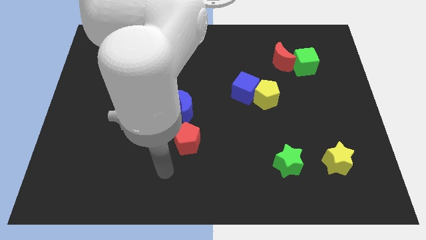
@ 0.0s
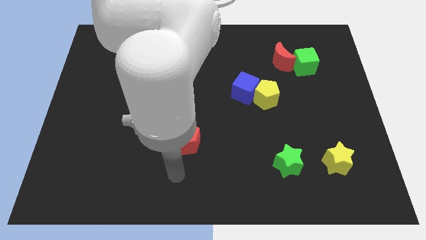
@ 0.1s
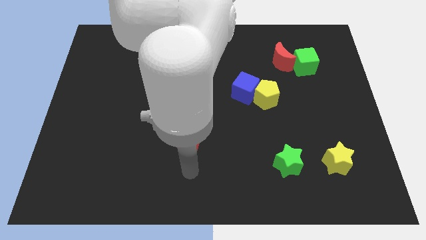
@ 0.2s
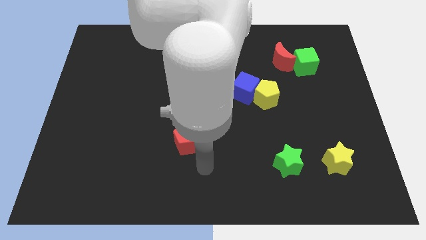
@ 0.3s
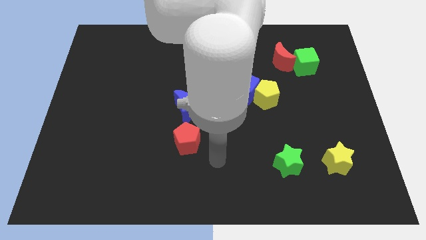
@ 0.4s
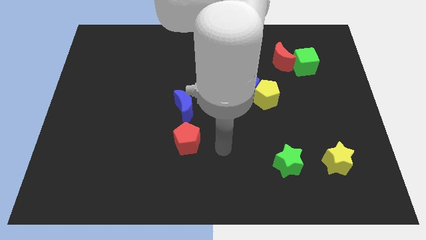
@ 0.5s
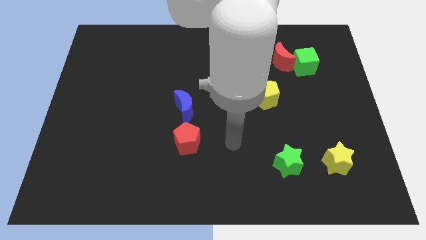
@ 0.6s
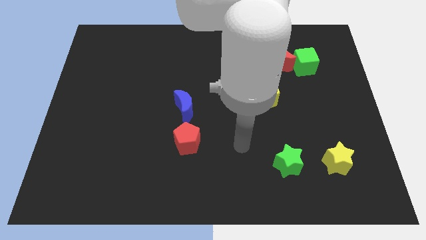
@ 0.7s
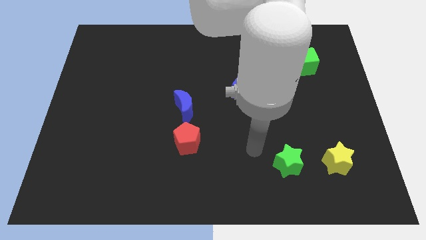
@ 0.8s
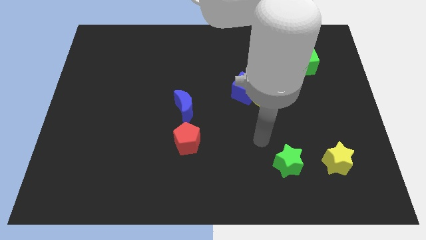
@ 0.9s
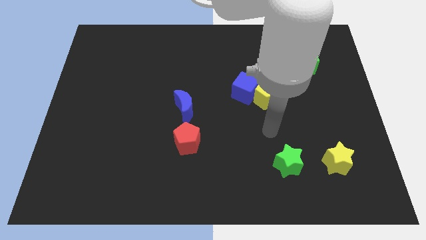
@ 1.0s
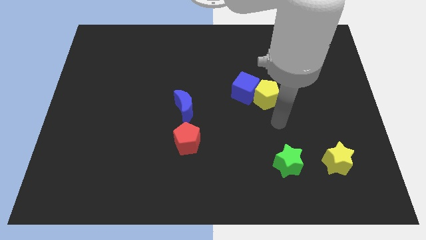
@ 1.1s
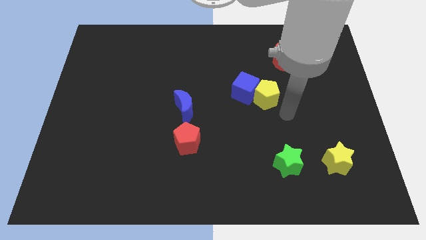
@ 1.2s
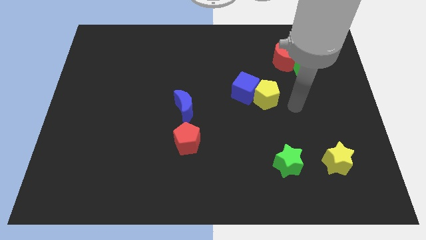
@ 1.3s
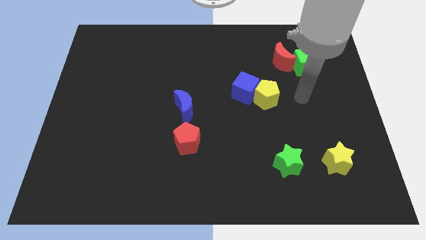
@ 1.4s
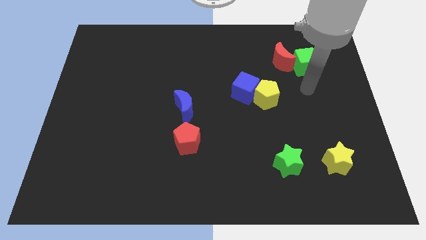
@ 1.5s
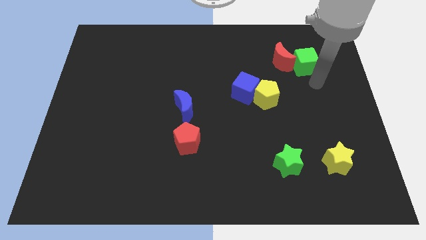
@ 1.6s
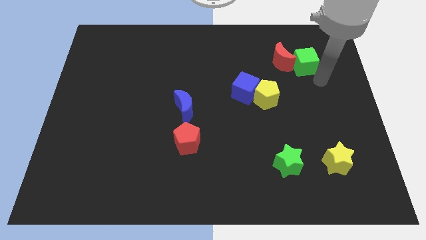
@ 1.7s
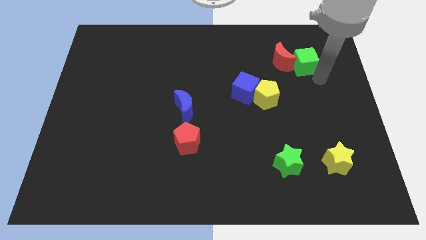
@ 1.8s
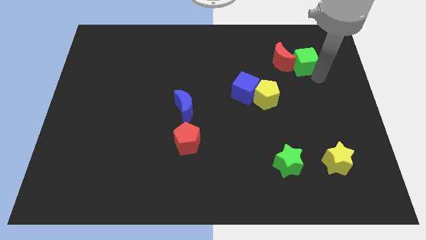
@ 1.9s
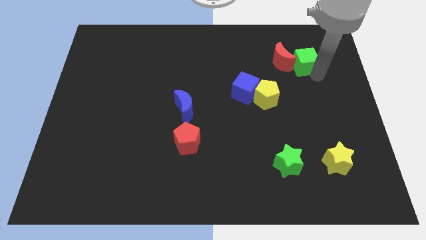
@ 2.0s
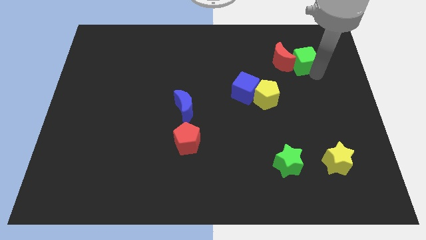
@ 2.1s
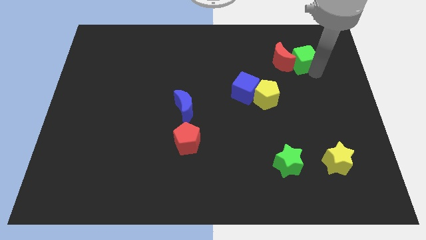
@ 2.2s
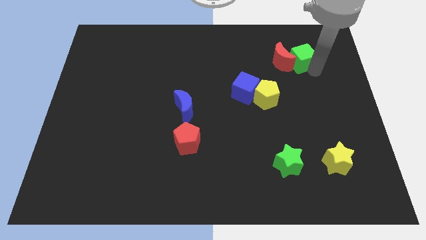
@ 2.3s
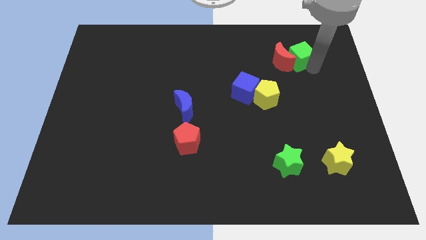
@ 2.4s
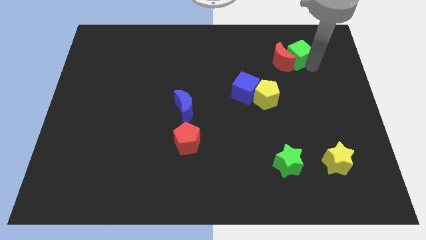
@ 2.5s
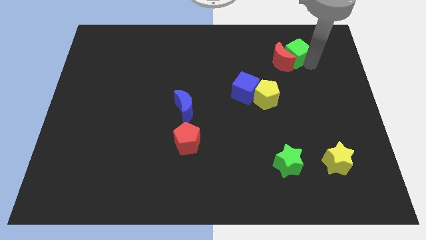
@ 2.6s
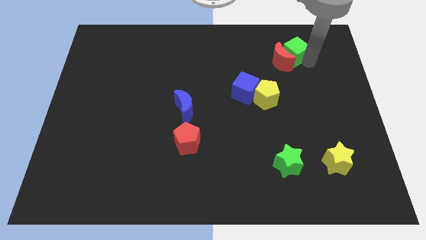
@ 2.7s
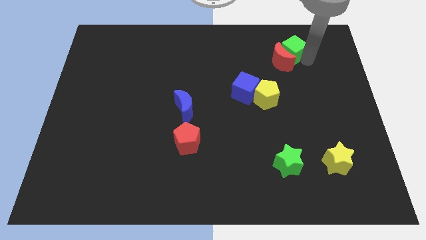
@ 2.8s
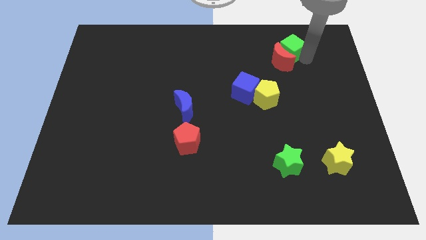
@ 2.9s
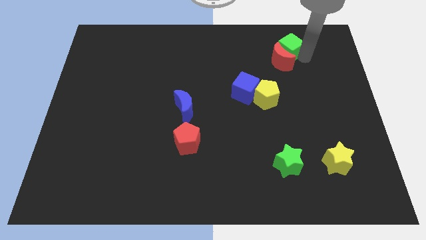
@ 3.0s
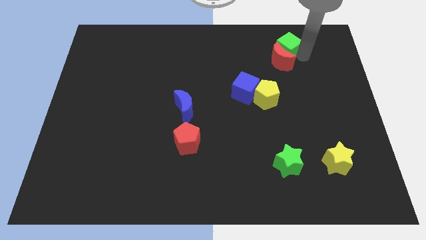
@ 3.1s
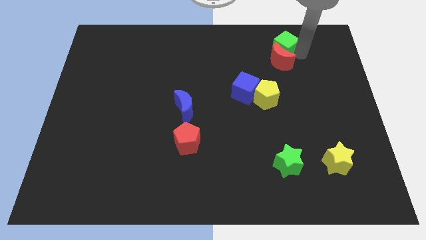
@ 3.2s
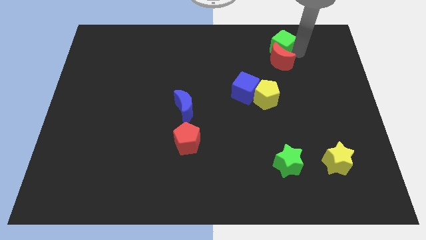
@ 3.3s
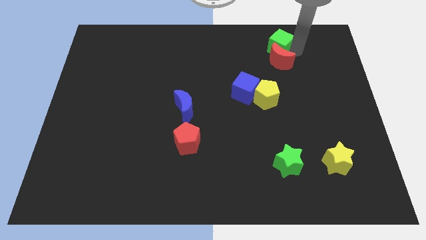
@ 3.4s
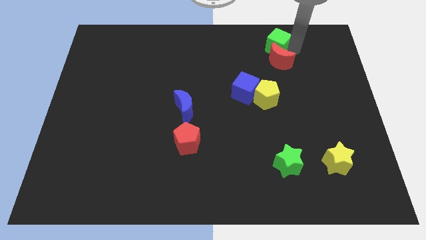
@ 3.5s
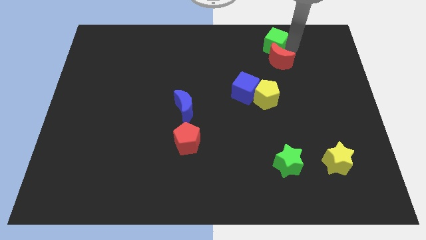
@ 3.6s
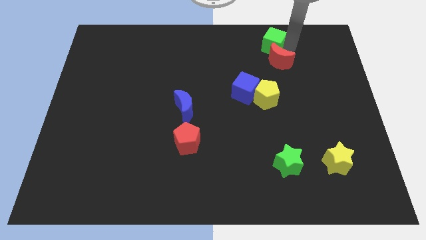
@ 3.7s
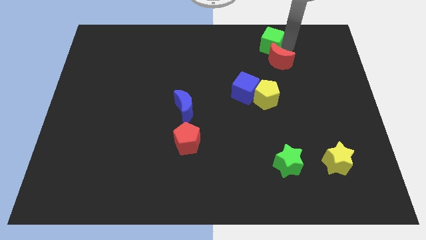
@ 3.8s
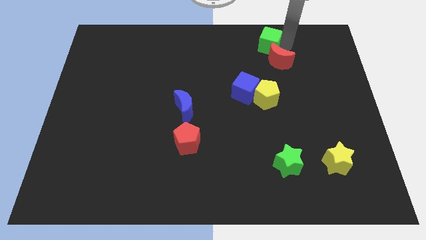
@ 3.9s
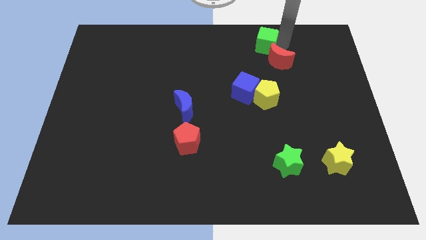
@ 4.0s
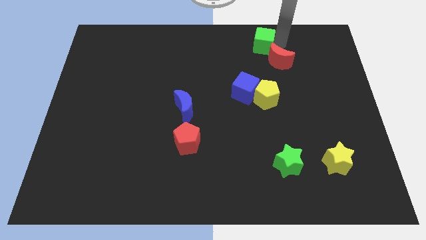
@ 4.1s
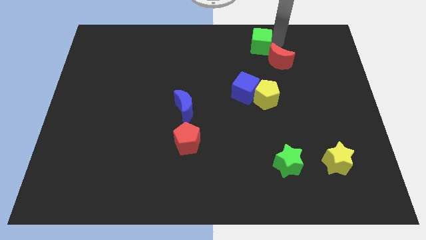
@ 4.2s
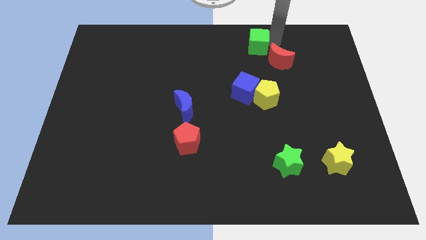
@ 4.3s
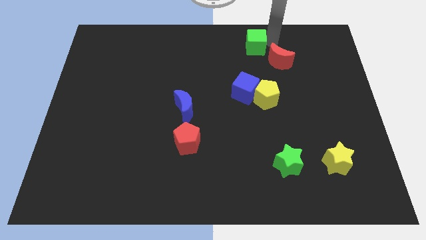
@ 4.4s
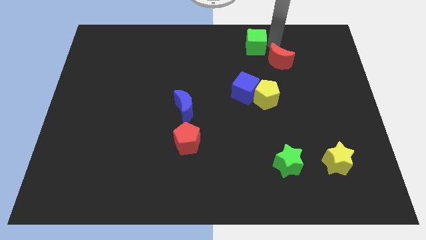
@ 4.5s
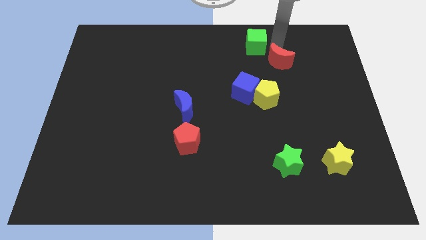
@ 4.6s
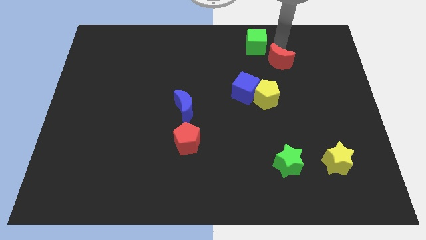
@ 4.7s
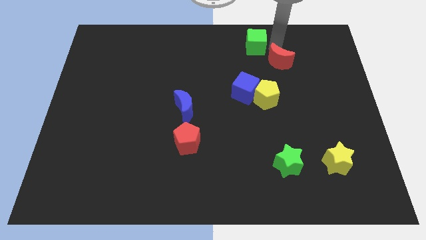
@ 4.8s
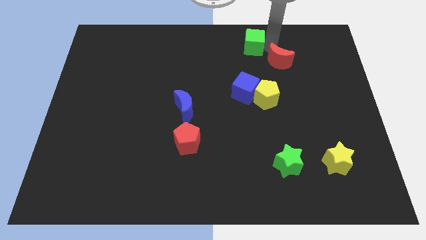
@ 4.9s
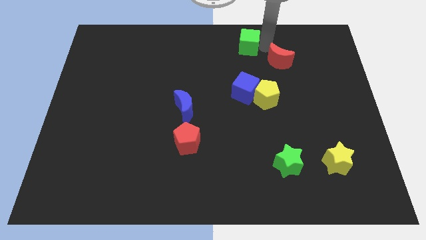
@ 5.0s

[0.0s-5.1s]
move the green cube to the top

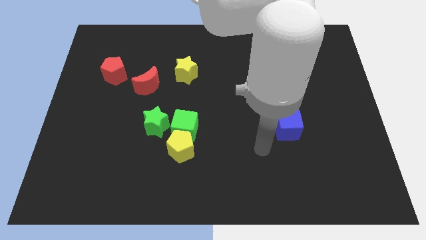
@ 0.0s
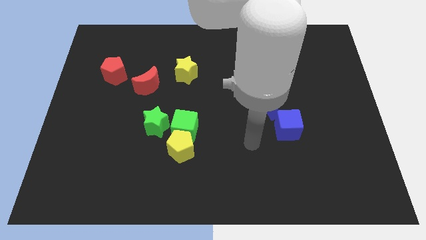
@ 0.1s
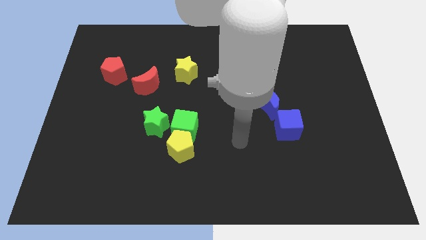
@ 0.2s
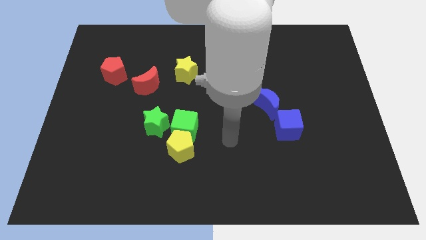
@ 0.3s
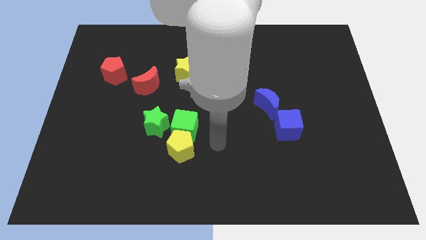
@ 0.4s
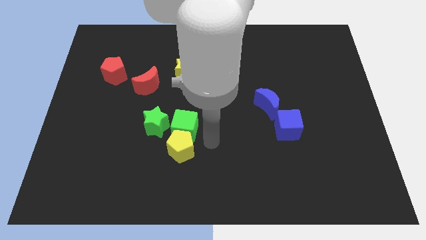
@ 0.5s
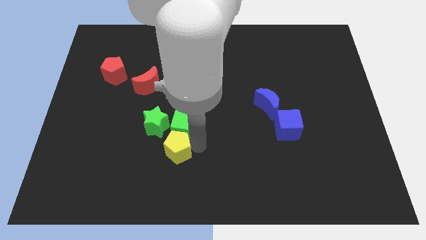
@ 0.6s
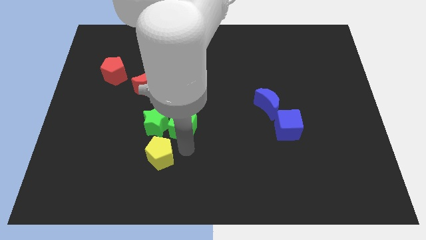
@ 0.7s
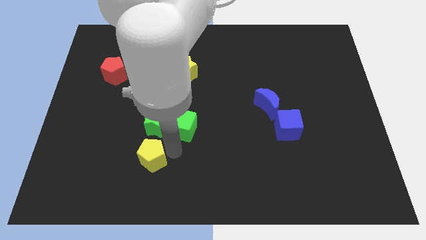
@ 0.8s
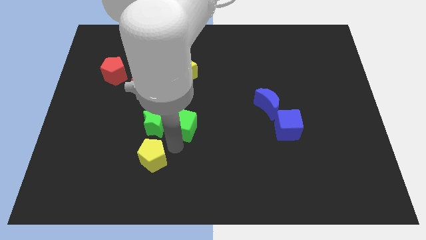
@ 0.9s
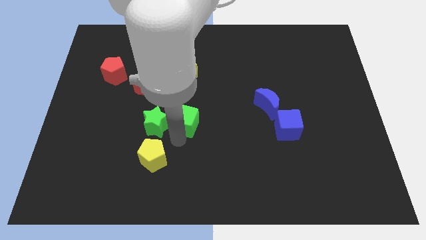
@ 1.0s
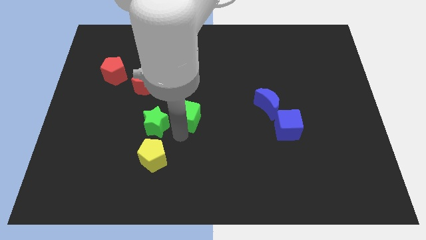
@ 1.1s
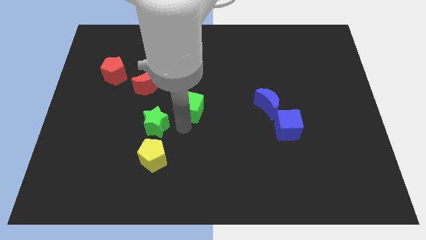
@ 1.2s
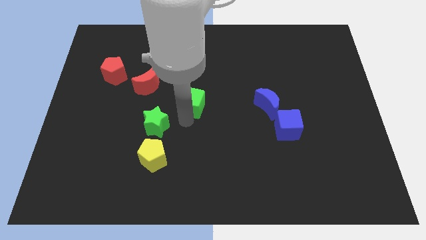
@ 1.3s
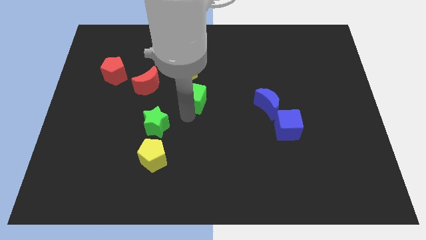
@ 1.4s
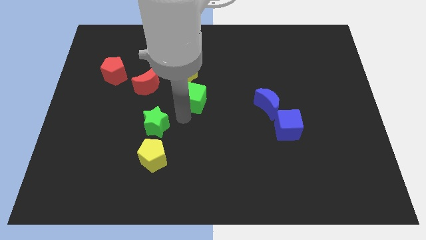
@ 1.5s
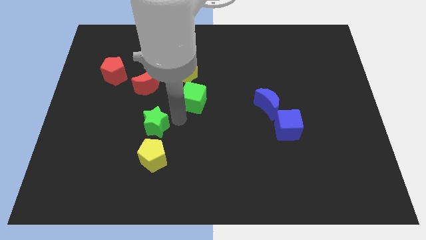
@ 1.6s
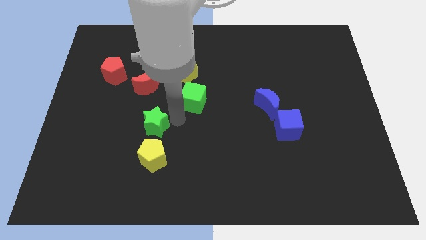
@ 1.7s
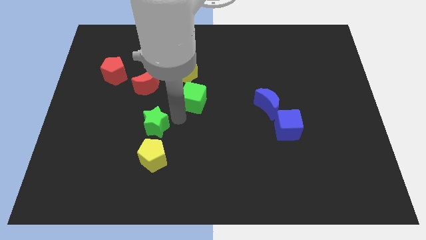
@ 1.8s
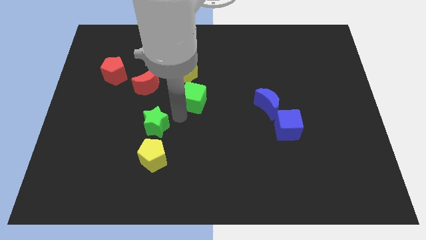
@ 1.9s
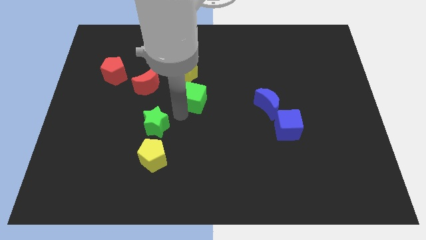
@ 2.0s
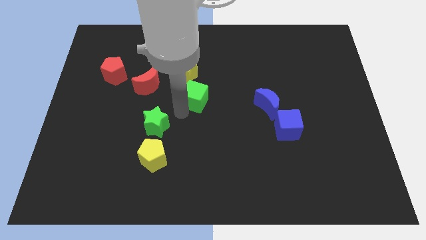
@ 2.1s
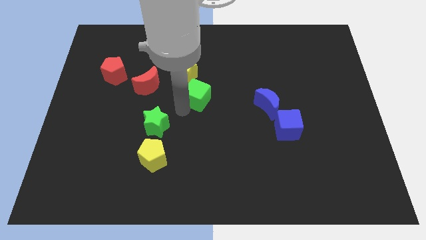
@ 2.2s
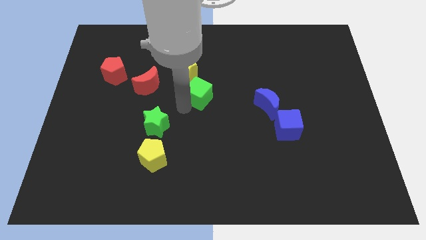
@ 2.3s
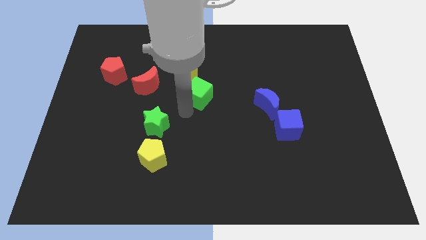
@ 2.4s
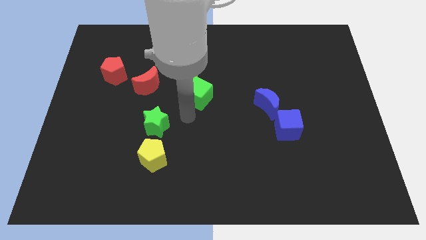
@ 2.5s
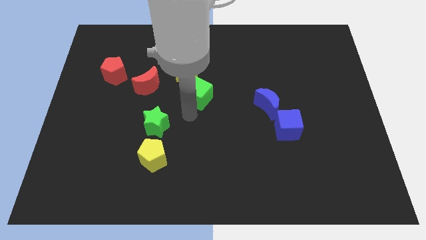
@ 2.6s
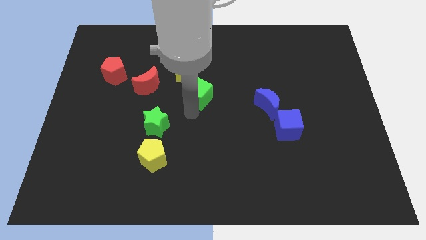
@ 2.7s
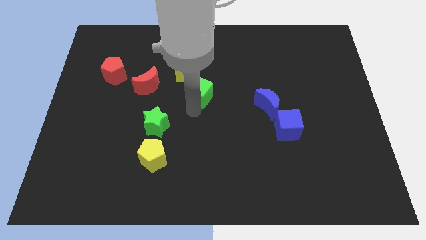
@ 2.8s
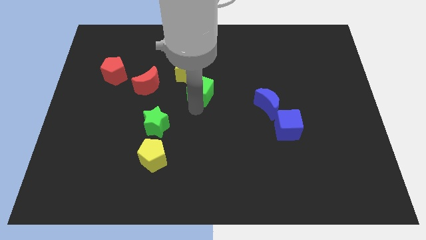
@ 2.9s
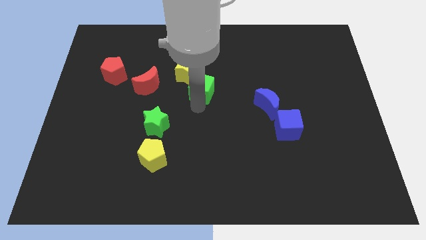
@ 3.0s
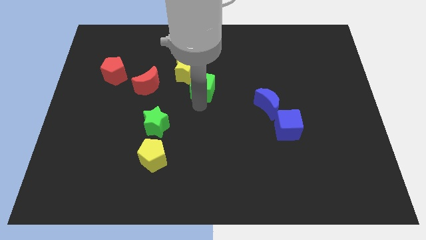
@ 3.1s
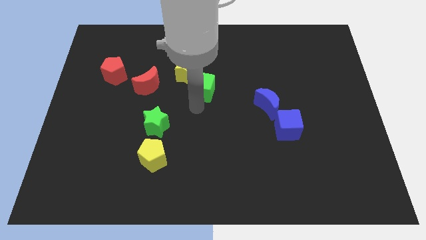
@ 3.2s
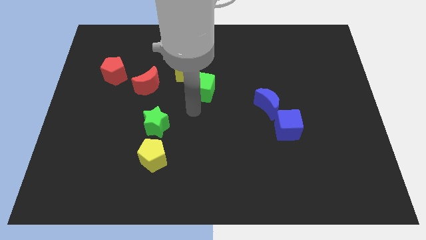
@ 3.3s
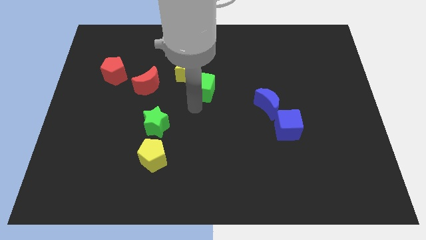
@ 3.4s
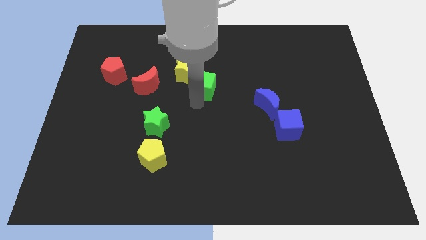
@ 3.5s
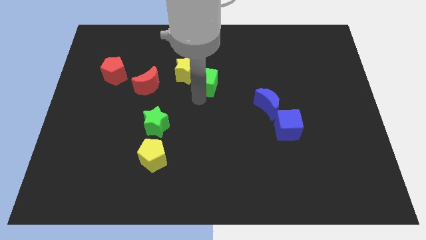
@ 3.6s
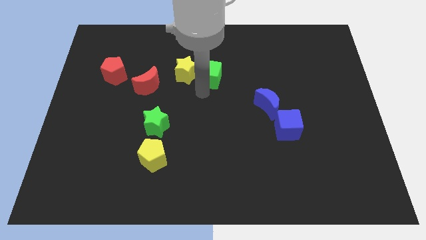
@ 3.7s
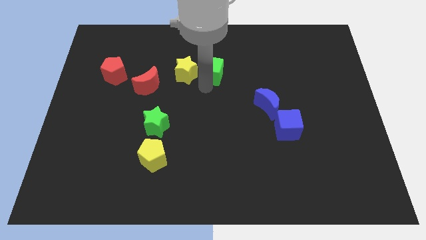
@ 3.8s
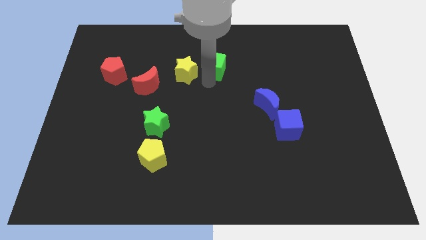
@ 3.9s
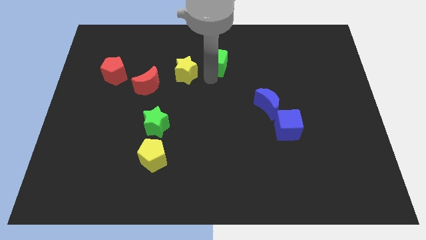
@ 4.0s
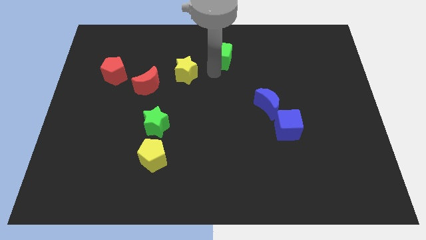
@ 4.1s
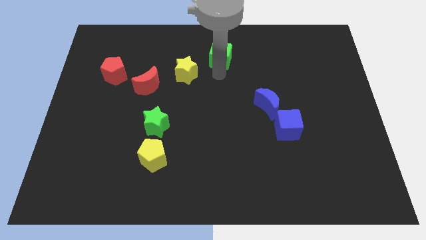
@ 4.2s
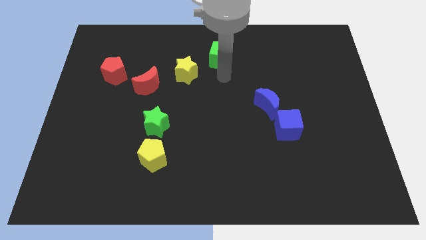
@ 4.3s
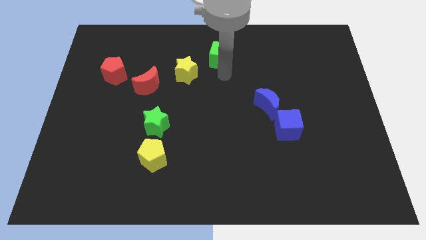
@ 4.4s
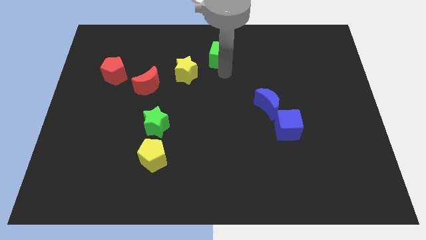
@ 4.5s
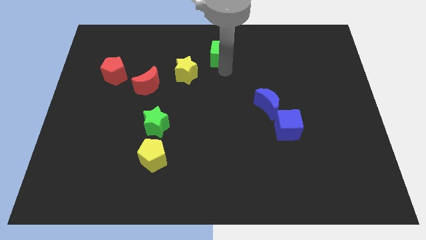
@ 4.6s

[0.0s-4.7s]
move the green cube to the top side
